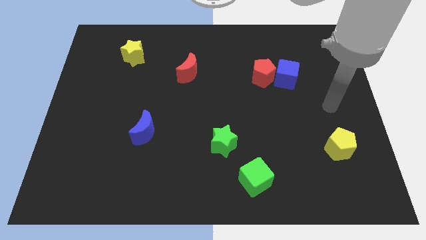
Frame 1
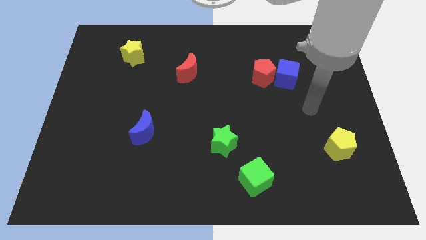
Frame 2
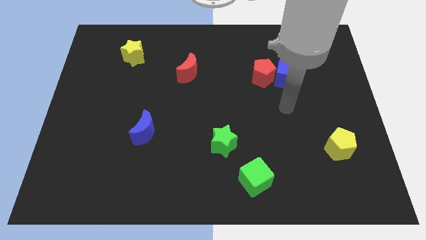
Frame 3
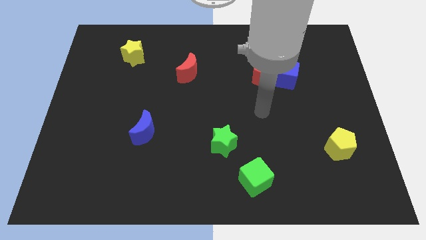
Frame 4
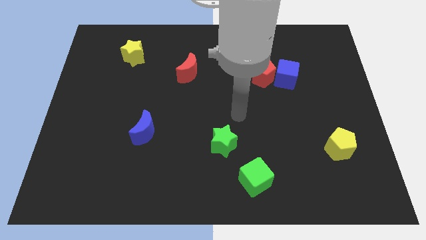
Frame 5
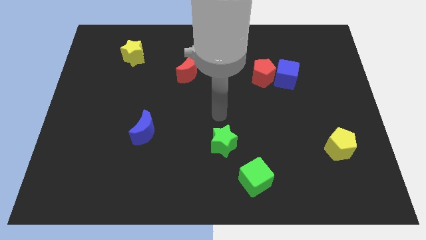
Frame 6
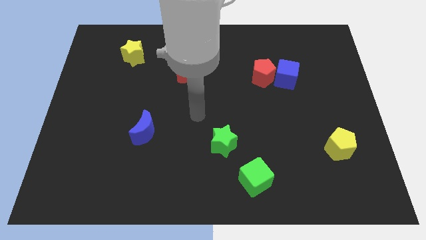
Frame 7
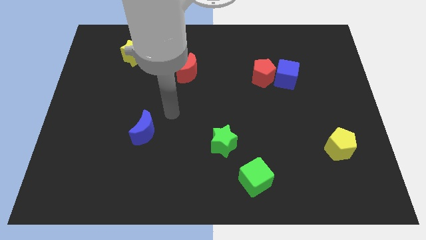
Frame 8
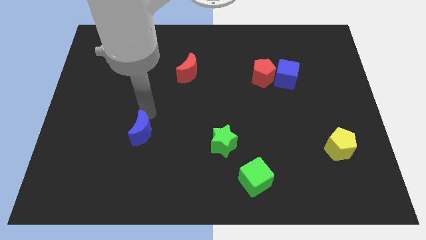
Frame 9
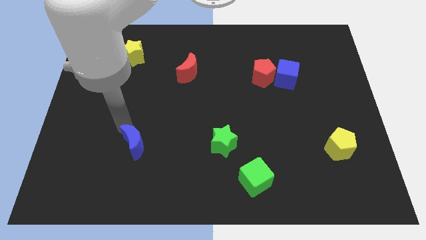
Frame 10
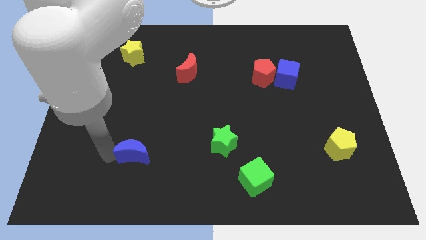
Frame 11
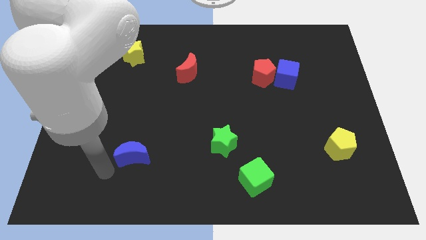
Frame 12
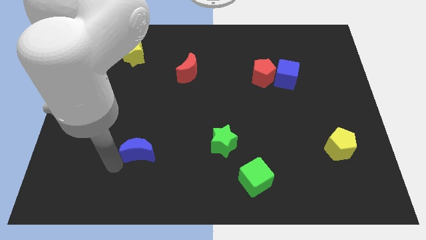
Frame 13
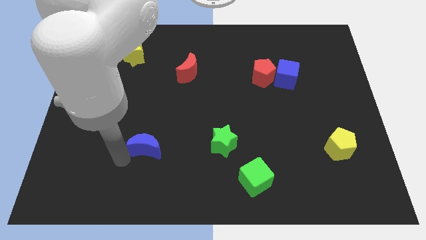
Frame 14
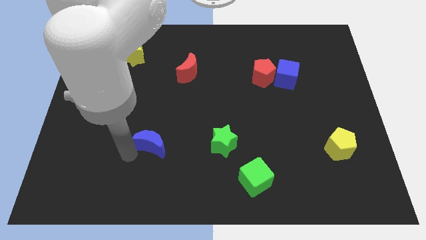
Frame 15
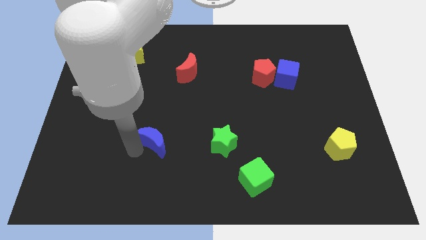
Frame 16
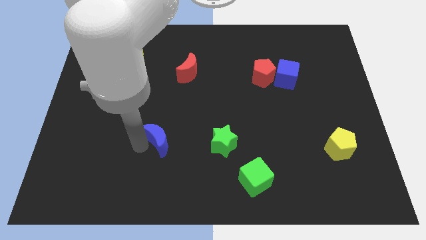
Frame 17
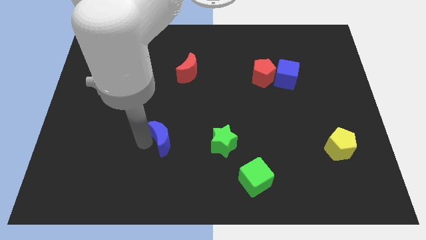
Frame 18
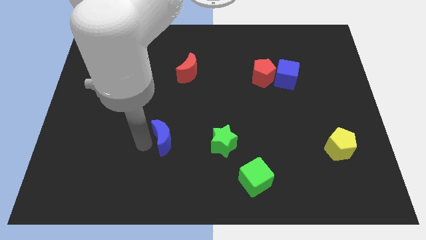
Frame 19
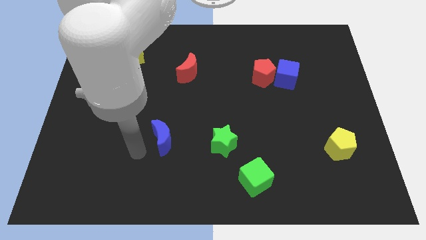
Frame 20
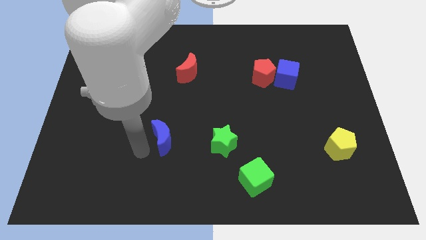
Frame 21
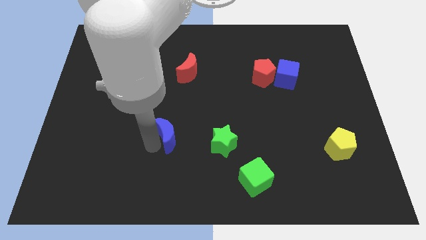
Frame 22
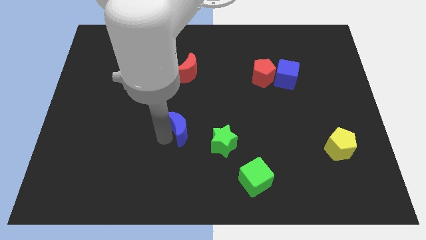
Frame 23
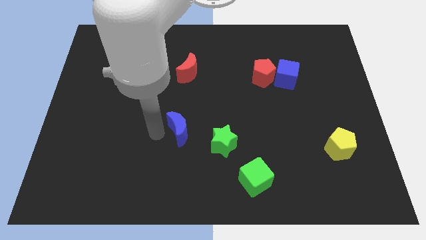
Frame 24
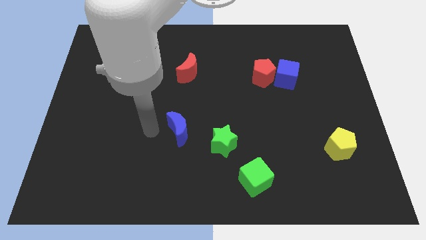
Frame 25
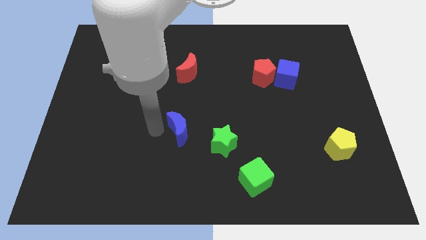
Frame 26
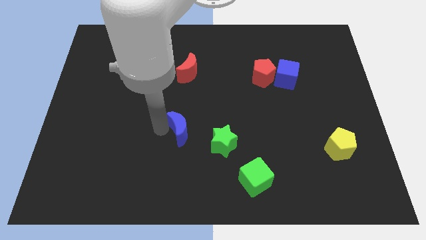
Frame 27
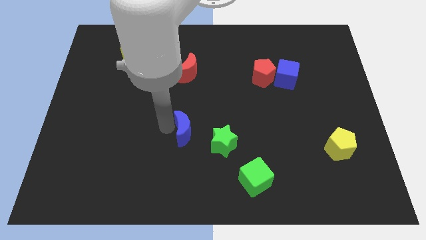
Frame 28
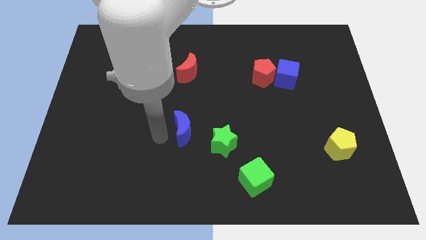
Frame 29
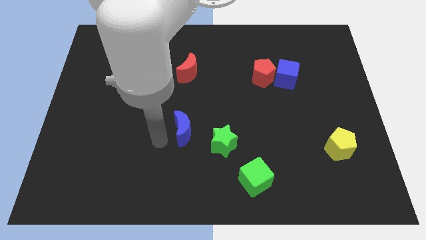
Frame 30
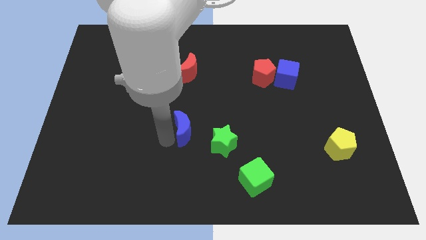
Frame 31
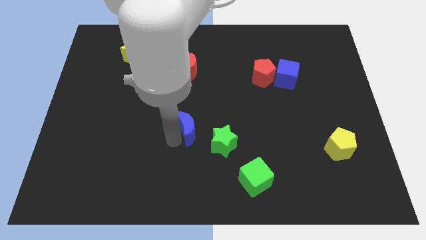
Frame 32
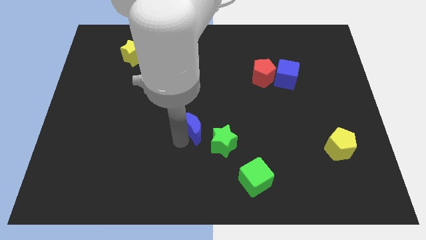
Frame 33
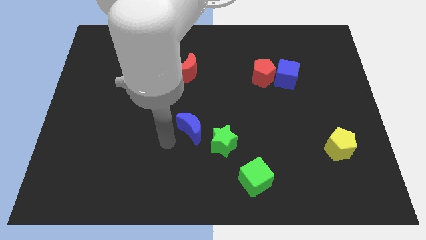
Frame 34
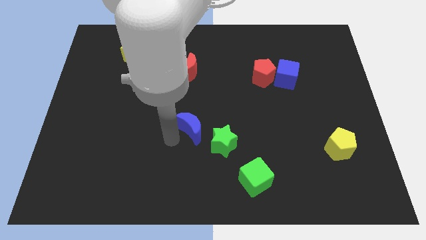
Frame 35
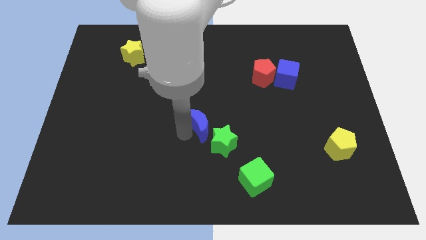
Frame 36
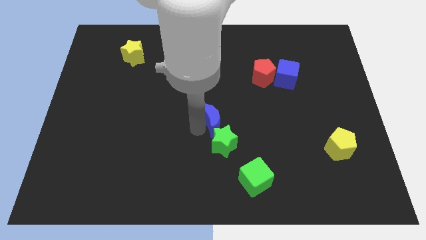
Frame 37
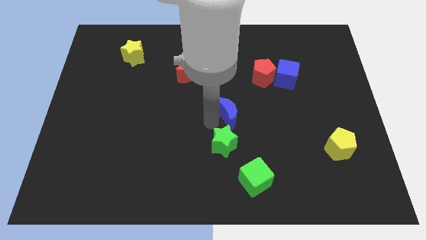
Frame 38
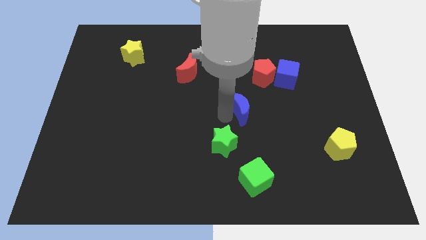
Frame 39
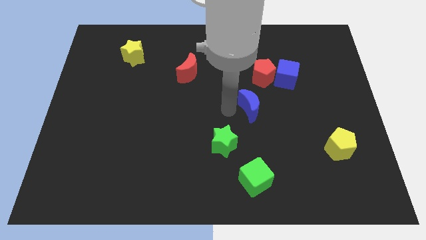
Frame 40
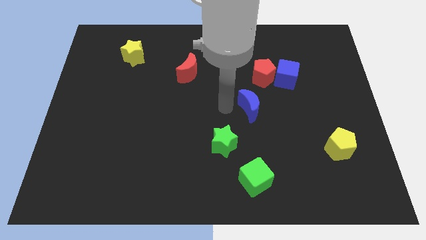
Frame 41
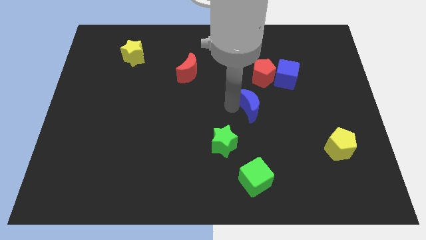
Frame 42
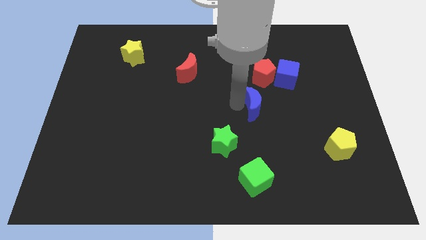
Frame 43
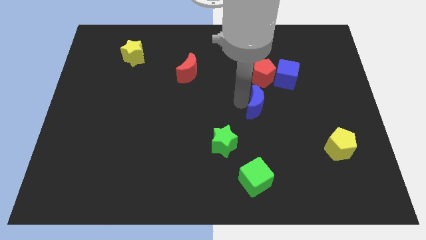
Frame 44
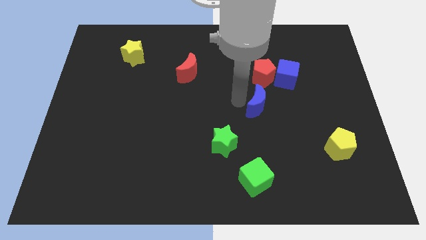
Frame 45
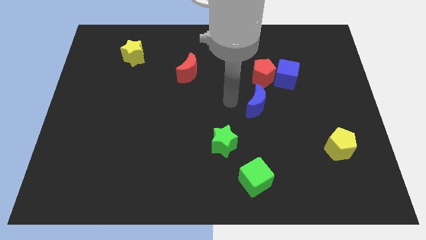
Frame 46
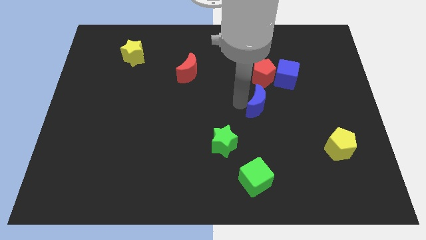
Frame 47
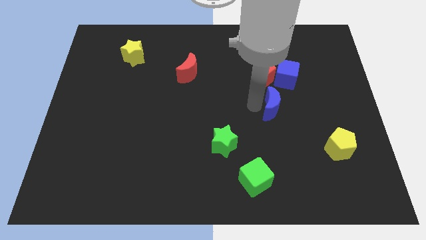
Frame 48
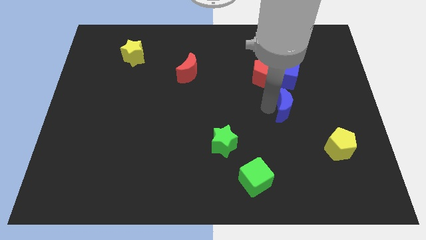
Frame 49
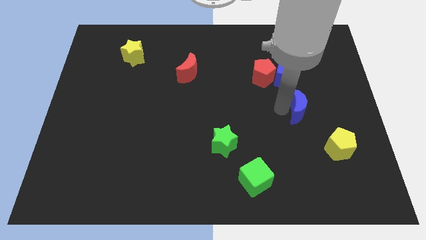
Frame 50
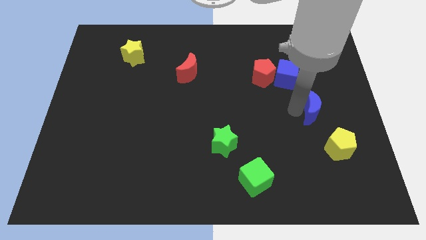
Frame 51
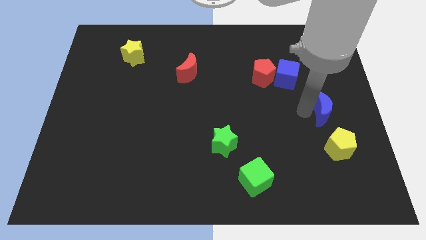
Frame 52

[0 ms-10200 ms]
slide the blue moon to the center right

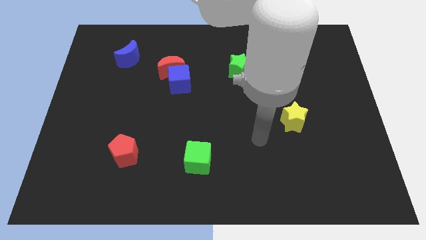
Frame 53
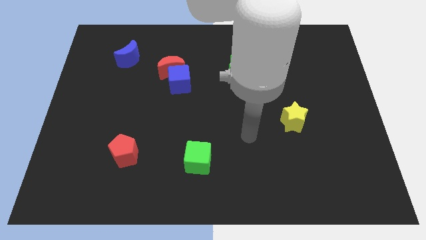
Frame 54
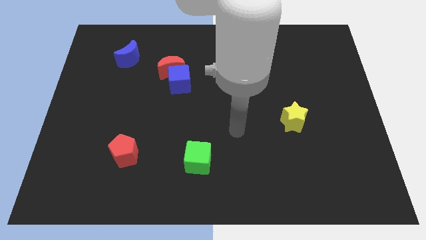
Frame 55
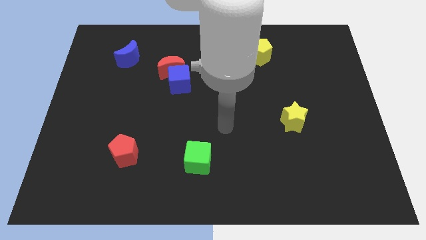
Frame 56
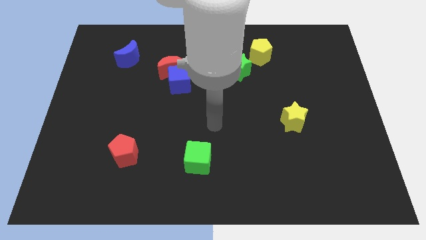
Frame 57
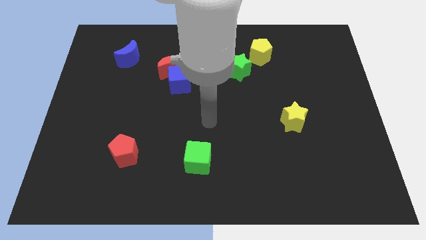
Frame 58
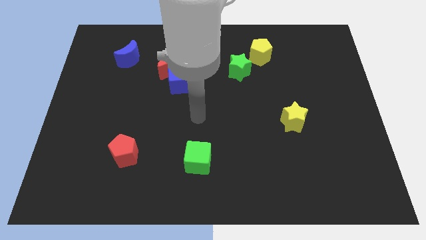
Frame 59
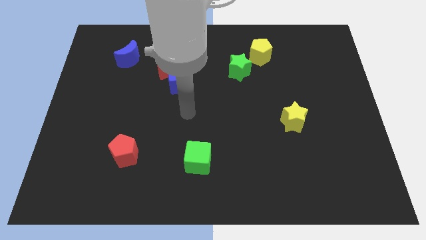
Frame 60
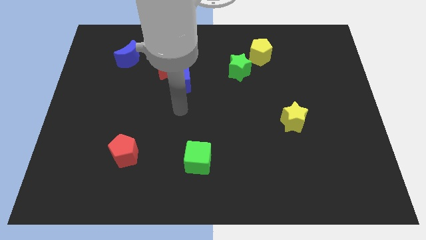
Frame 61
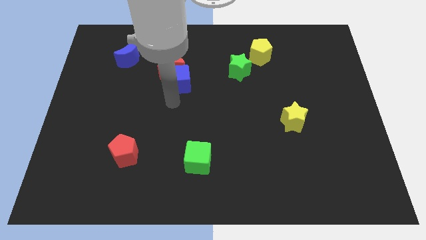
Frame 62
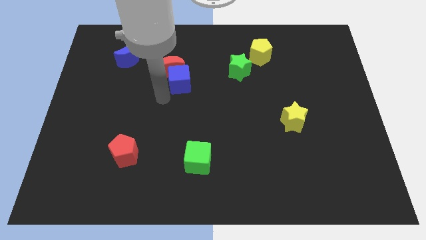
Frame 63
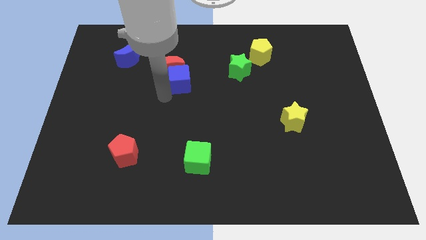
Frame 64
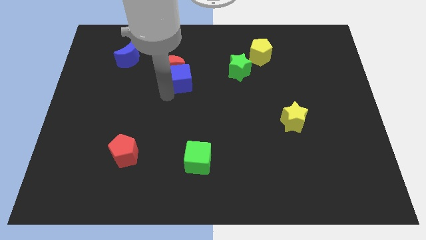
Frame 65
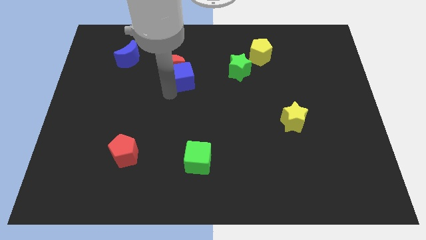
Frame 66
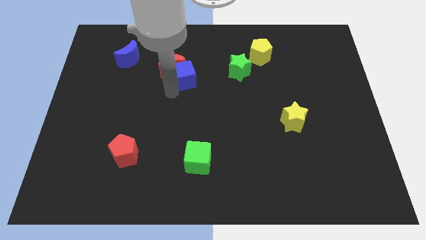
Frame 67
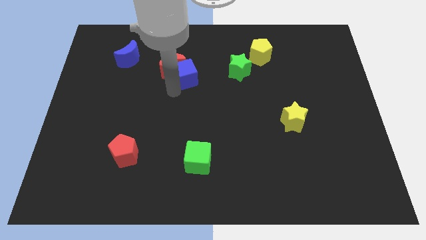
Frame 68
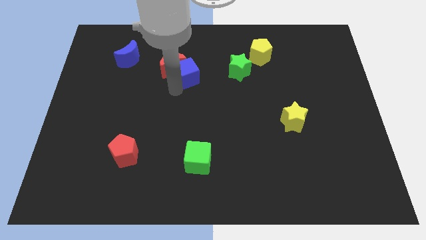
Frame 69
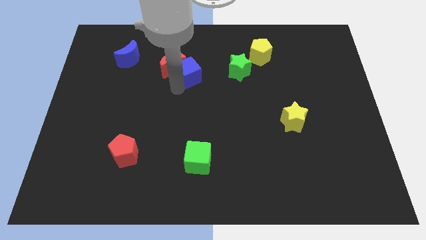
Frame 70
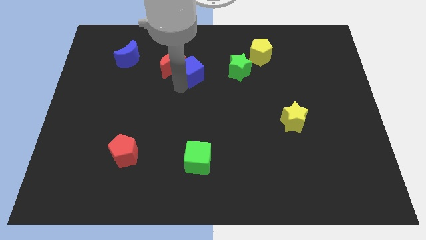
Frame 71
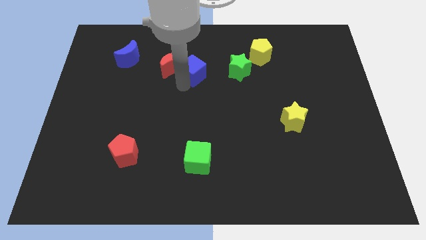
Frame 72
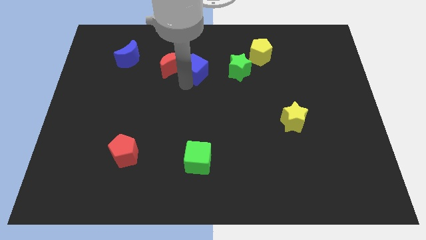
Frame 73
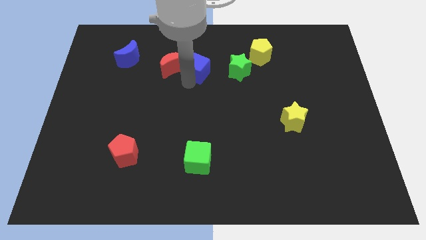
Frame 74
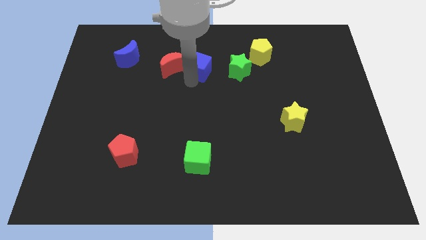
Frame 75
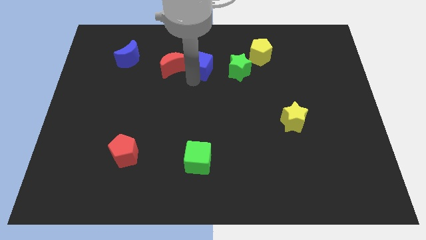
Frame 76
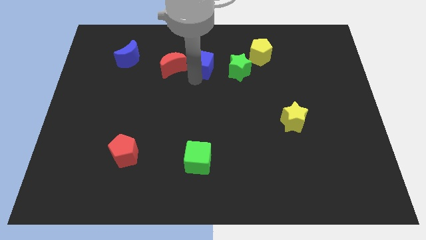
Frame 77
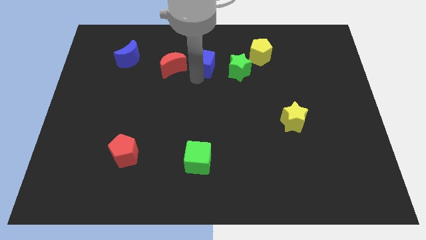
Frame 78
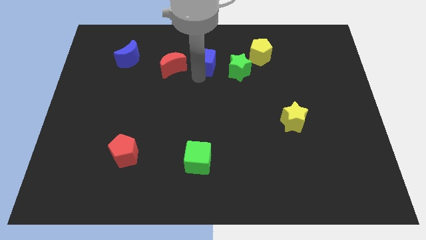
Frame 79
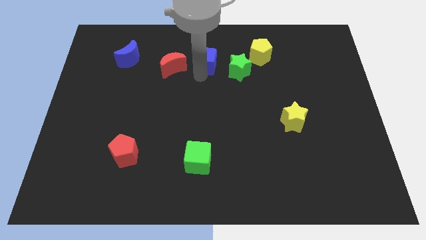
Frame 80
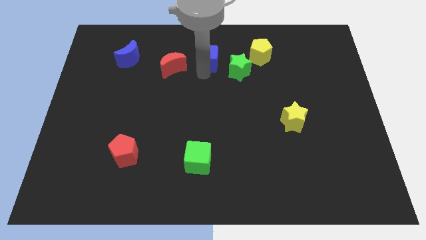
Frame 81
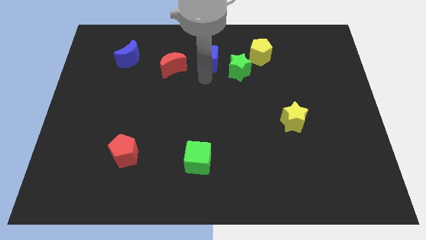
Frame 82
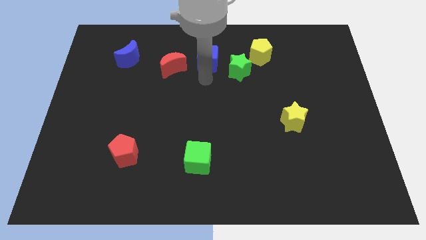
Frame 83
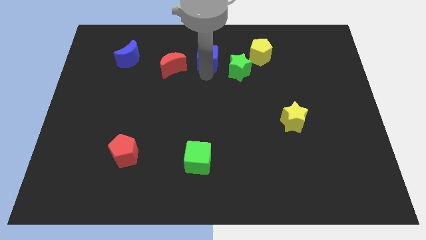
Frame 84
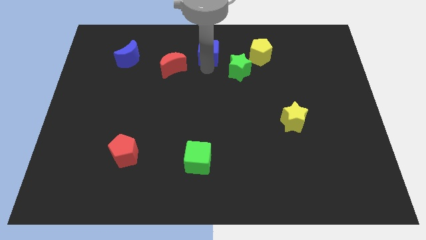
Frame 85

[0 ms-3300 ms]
push the blue cube to the top
